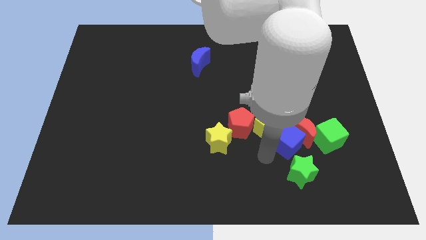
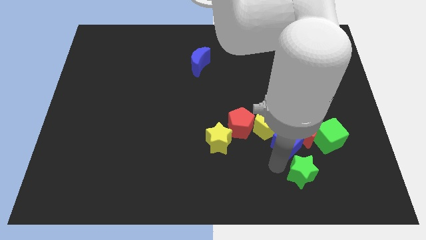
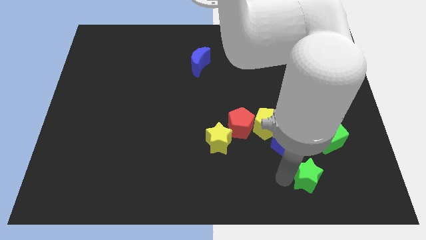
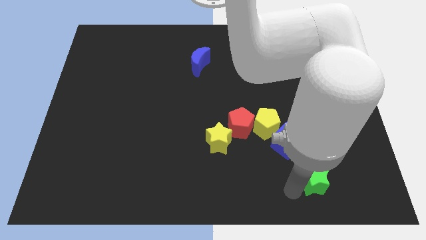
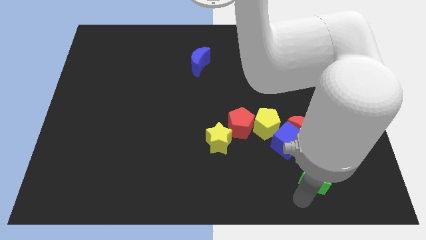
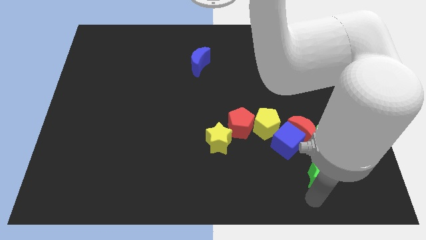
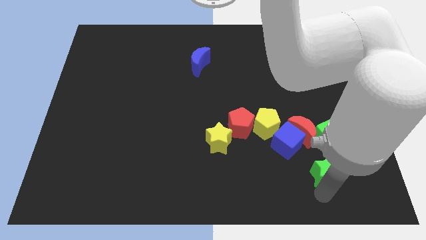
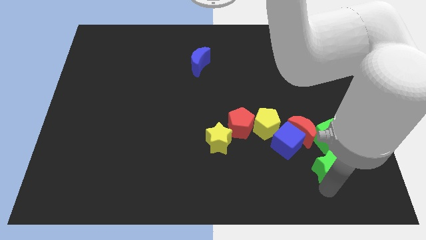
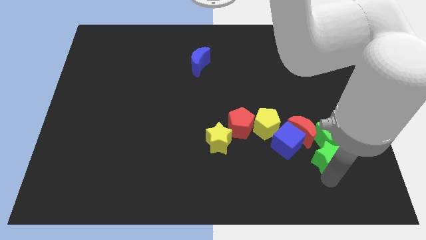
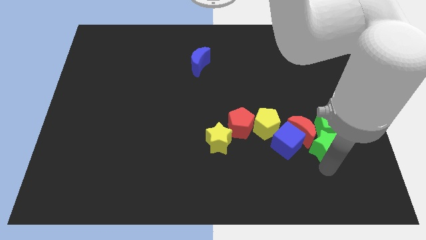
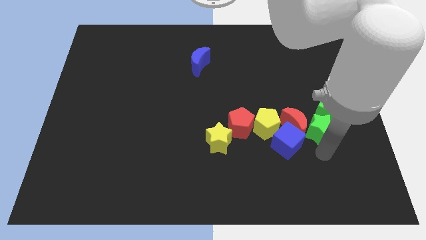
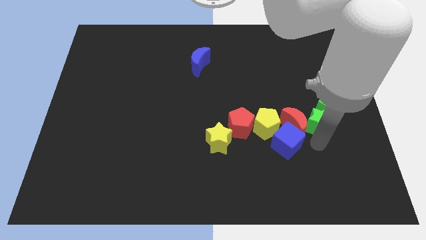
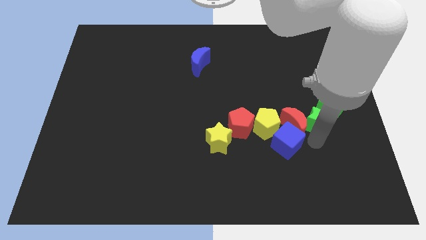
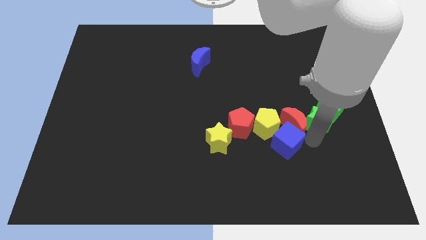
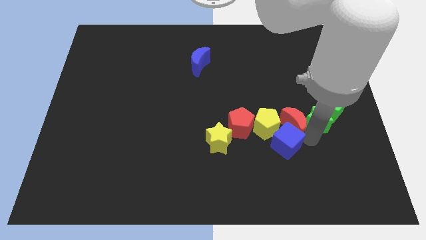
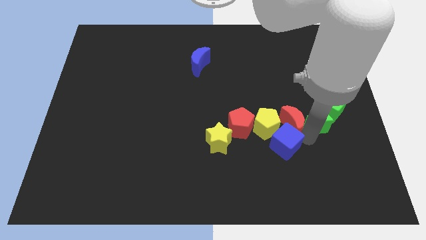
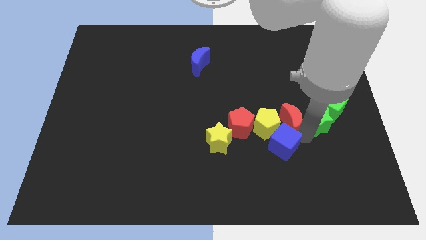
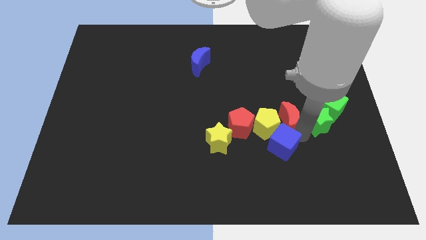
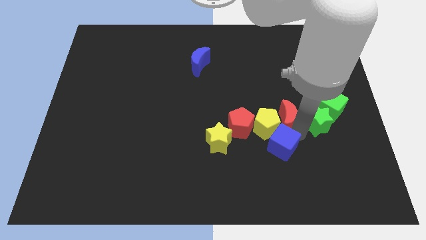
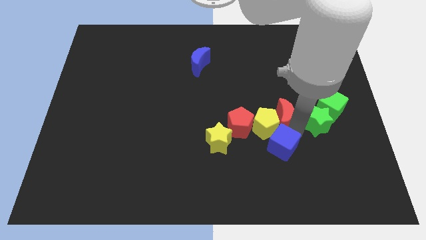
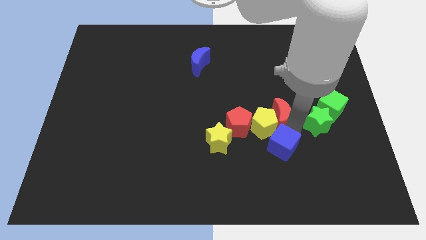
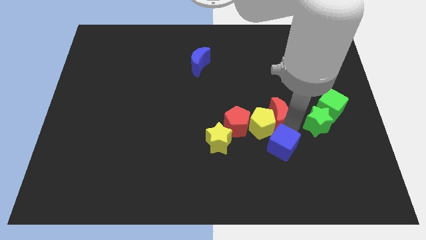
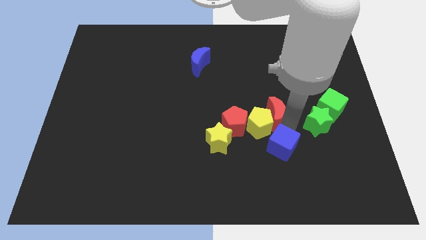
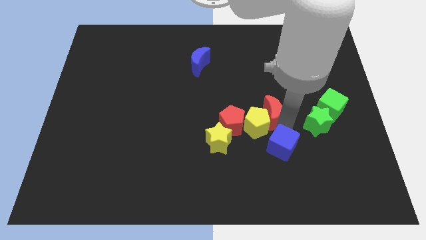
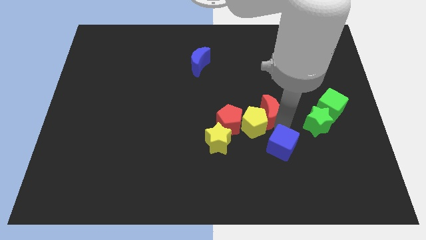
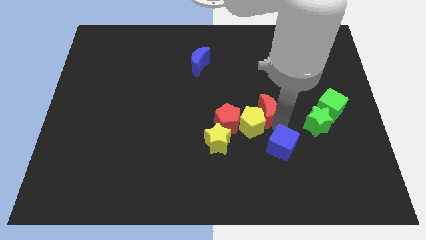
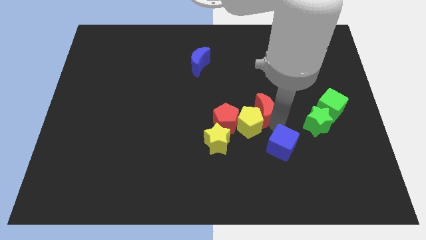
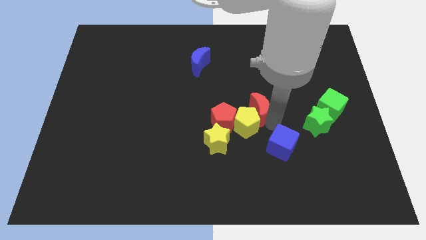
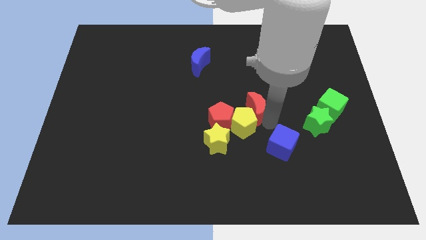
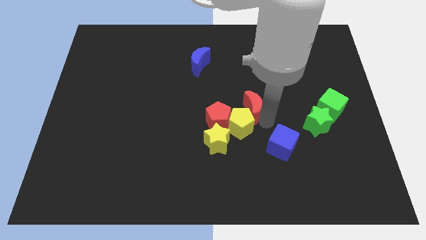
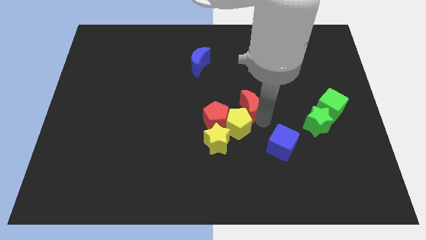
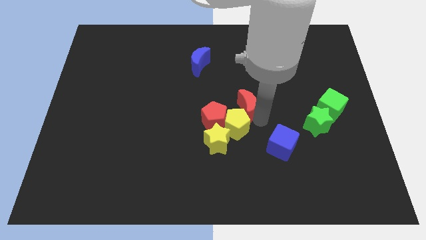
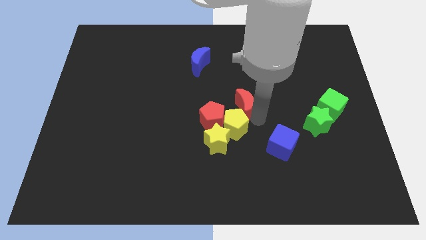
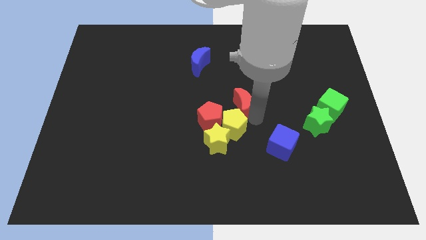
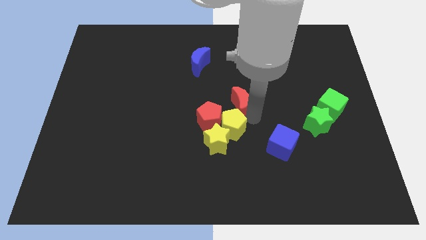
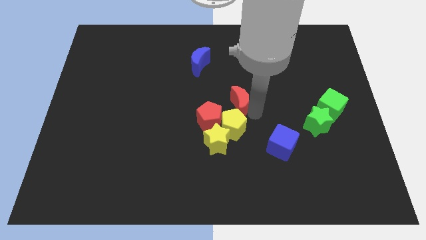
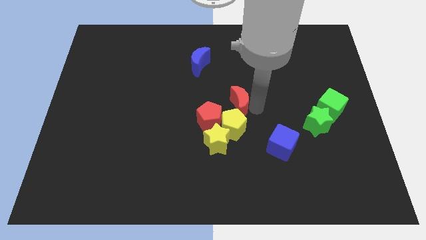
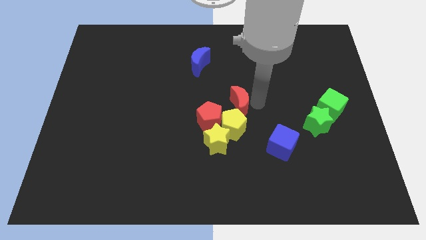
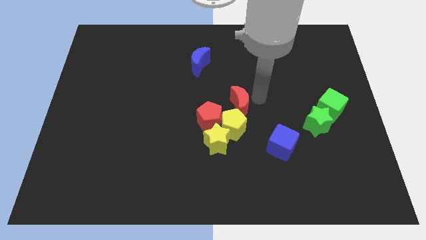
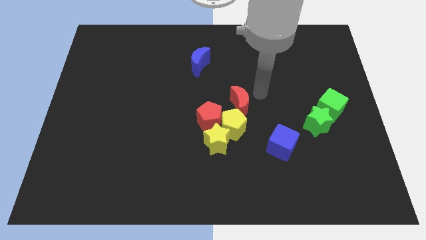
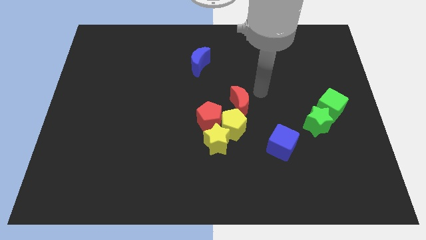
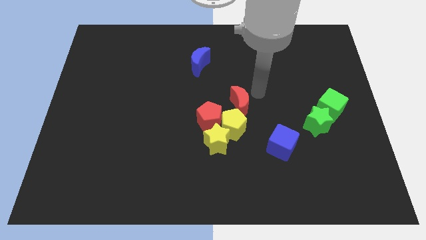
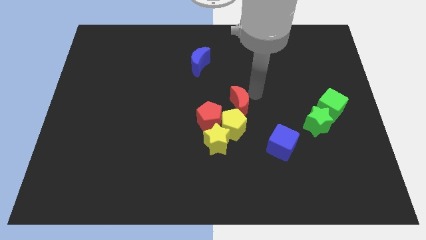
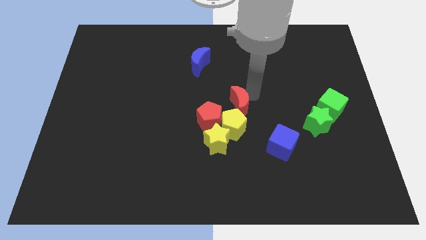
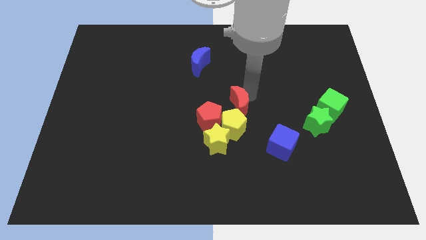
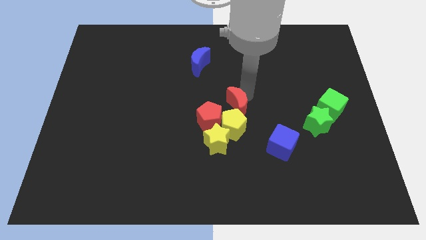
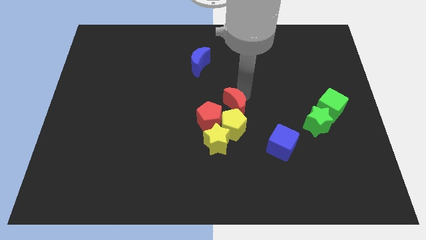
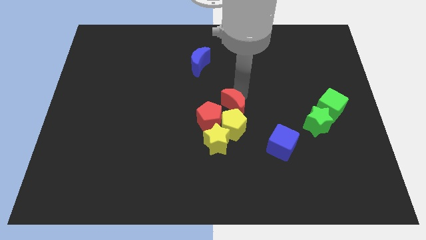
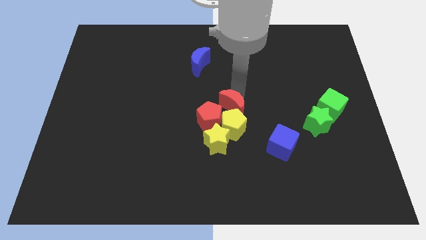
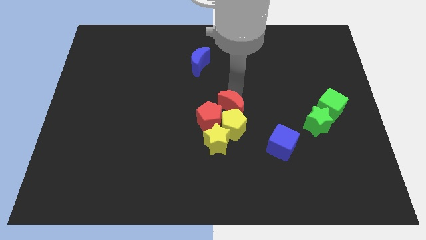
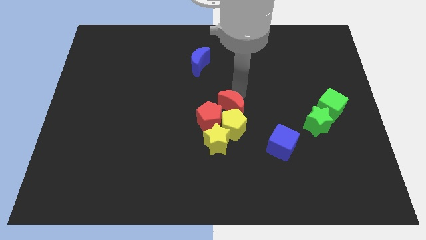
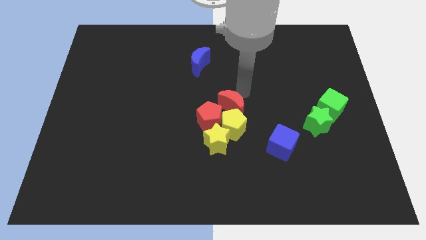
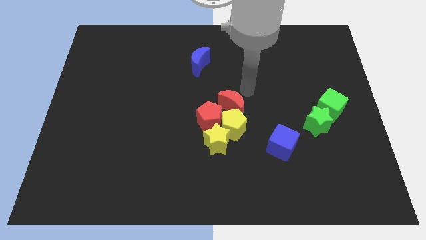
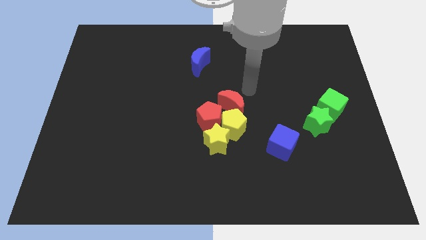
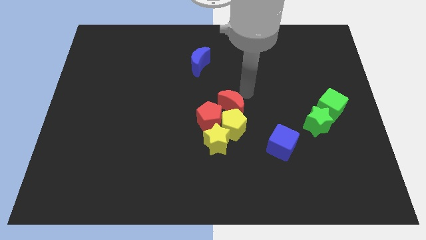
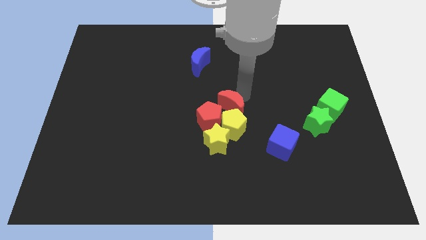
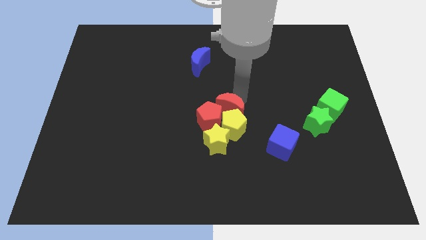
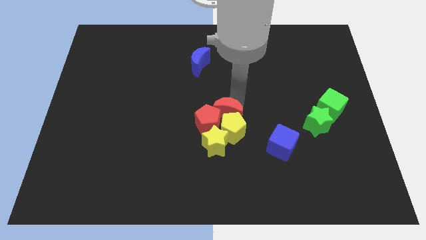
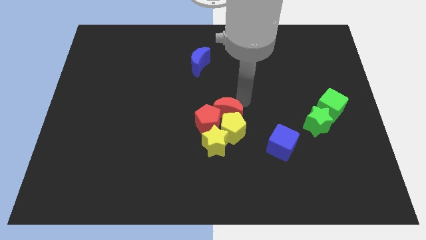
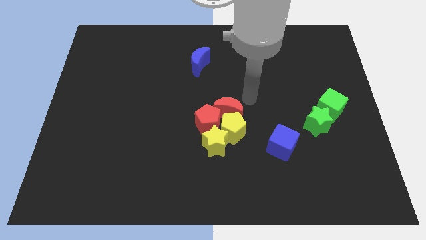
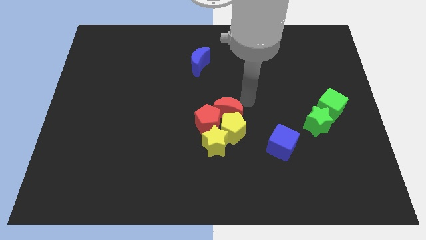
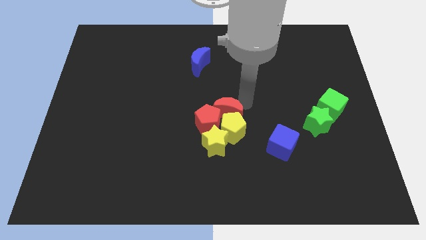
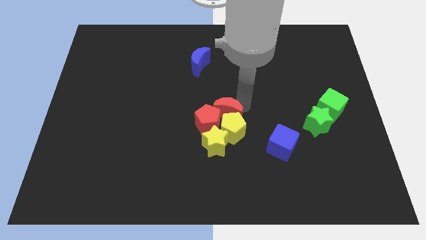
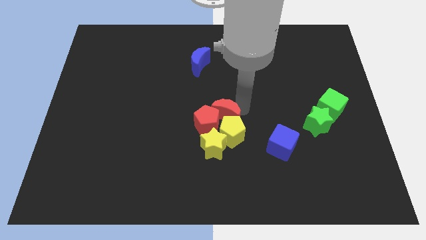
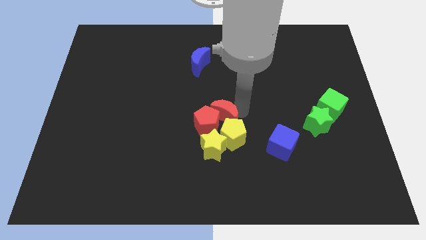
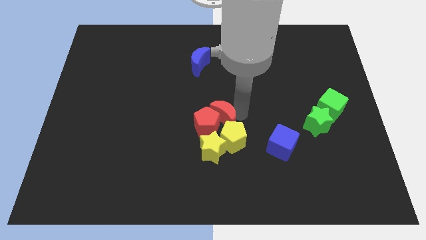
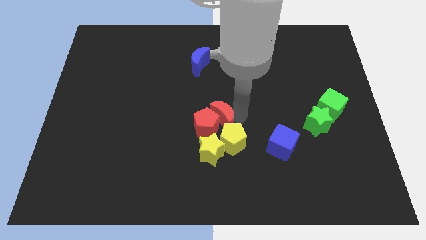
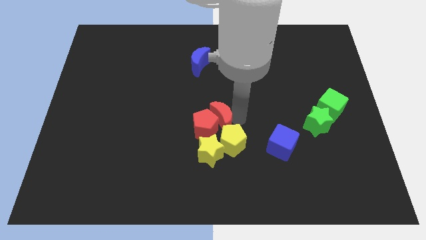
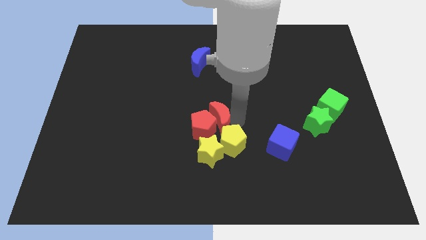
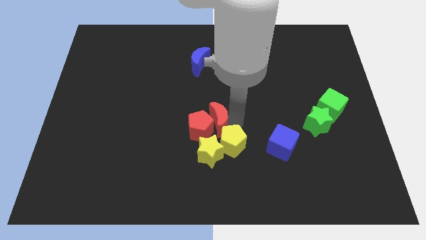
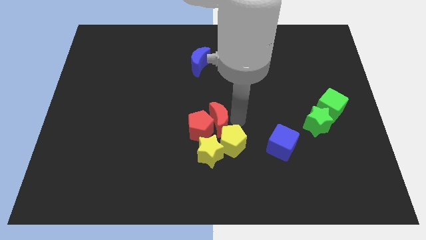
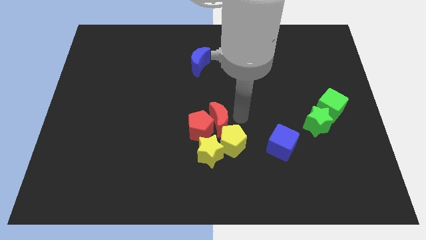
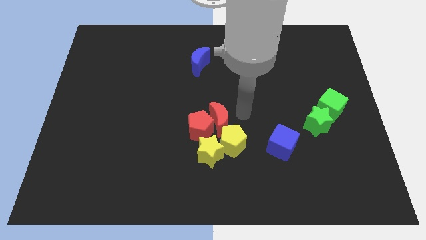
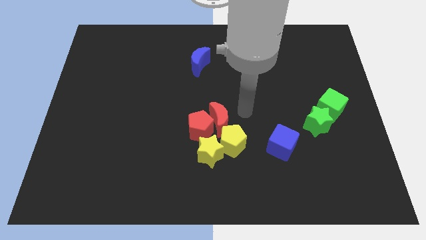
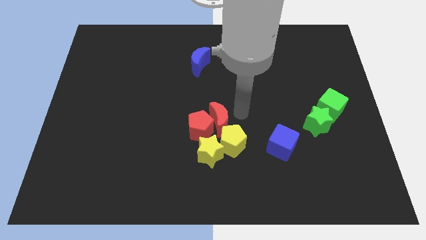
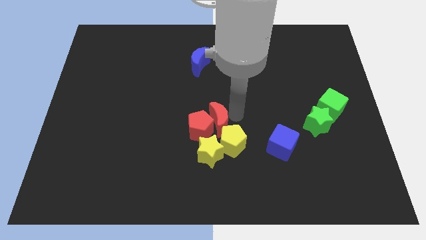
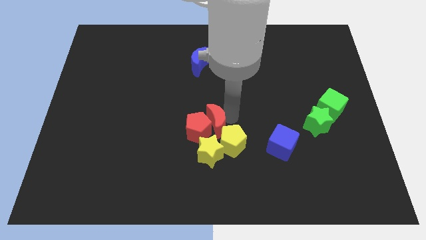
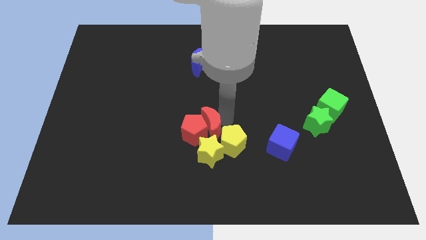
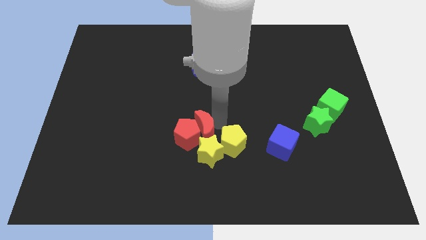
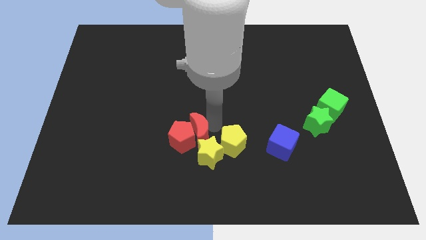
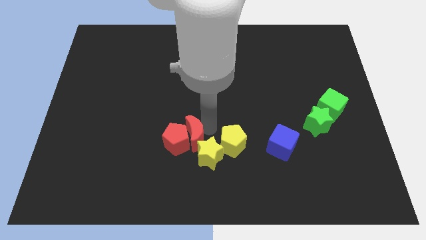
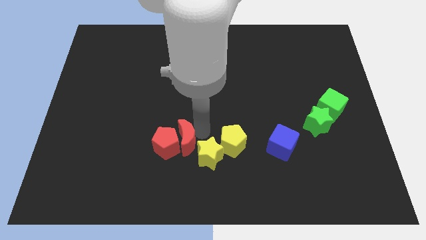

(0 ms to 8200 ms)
slide the red moon to the left of the yellow star
